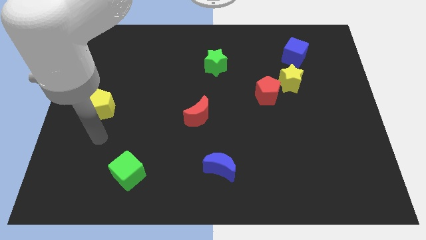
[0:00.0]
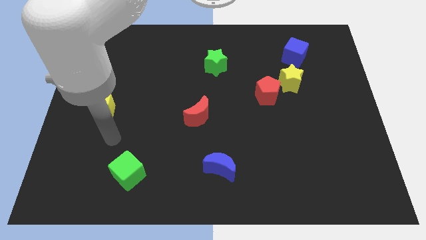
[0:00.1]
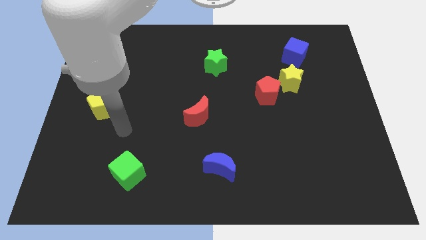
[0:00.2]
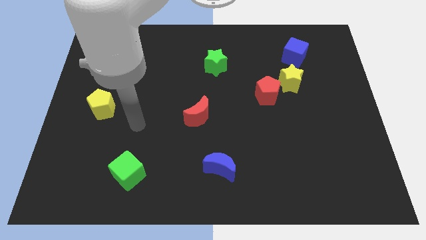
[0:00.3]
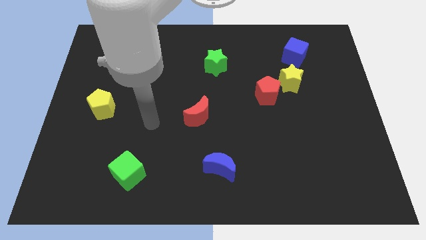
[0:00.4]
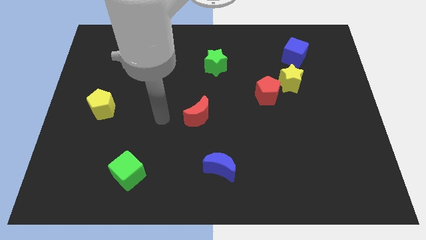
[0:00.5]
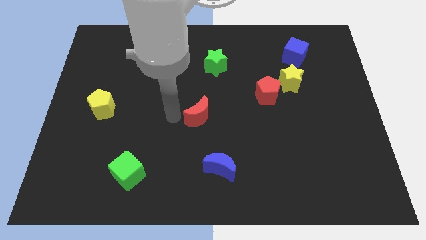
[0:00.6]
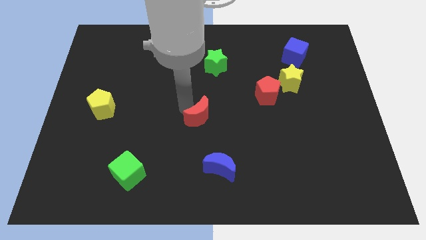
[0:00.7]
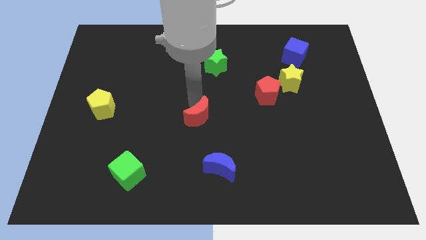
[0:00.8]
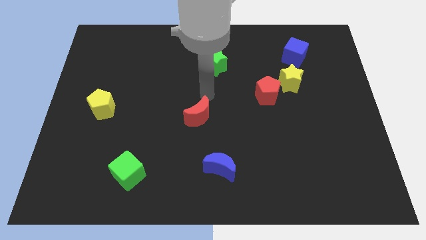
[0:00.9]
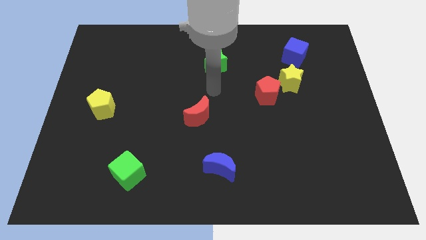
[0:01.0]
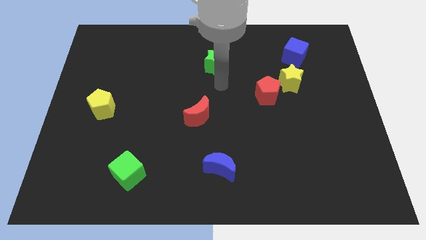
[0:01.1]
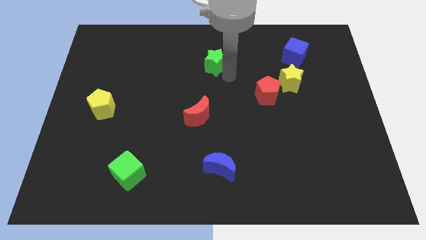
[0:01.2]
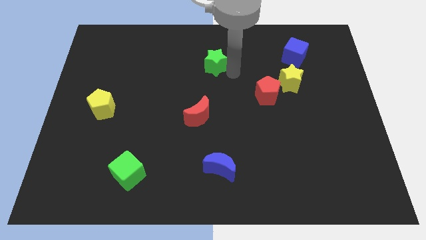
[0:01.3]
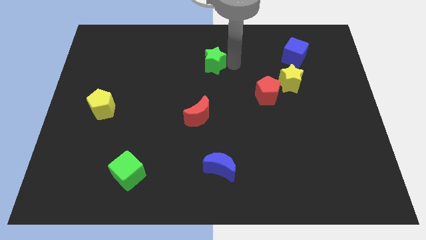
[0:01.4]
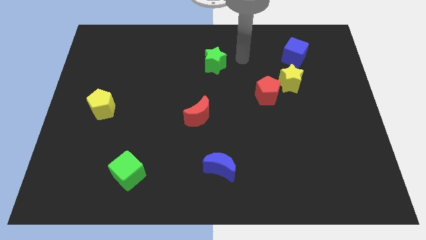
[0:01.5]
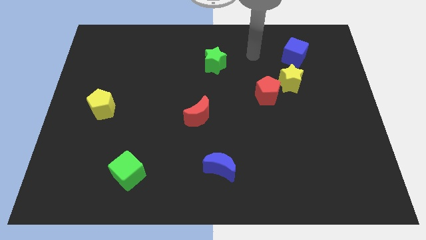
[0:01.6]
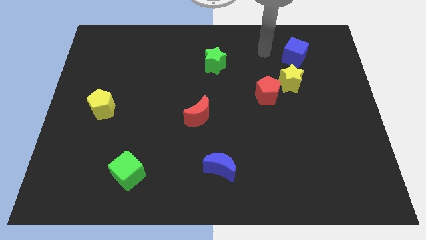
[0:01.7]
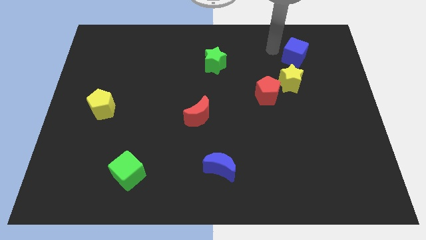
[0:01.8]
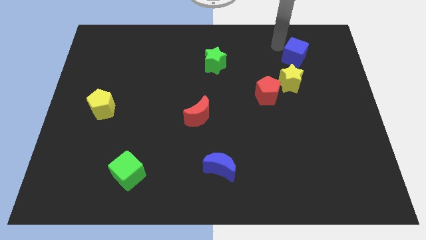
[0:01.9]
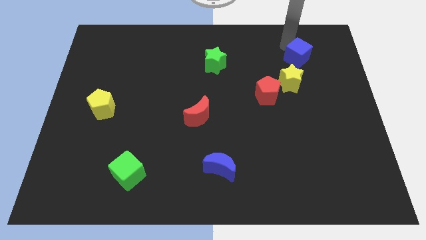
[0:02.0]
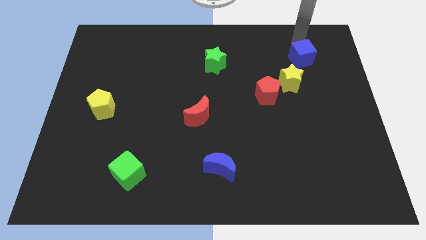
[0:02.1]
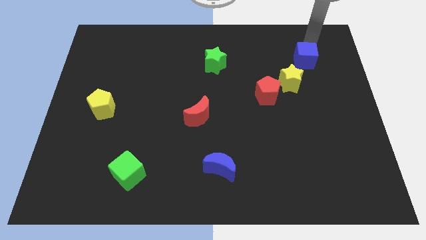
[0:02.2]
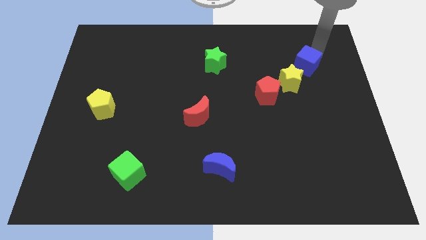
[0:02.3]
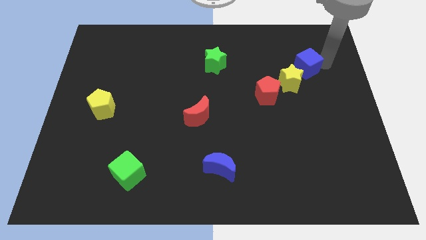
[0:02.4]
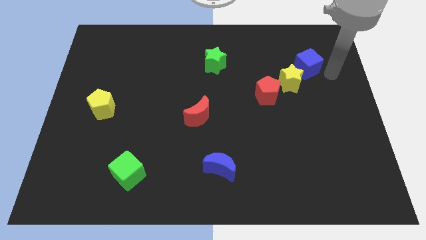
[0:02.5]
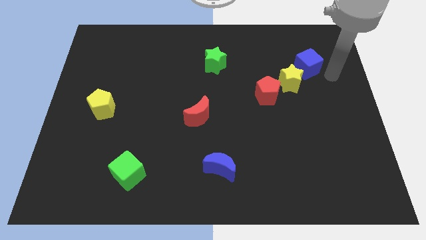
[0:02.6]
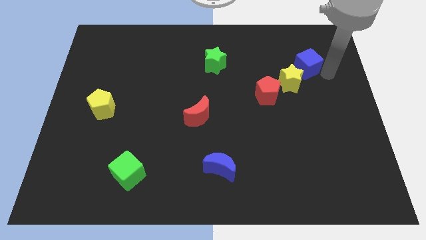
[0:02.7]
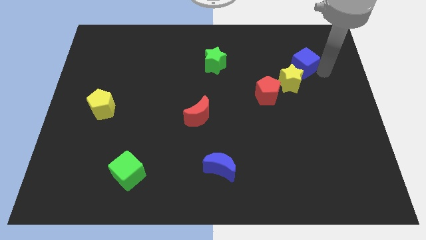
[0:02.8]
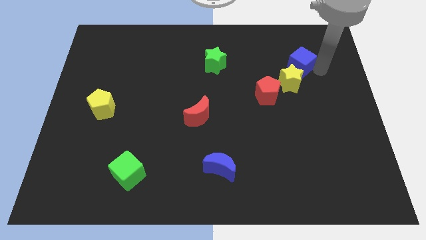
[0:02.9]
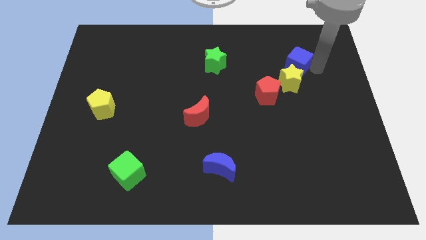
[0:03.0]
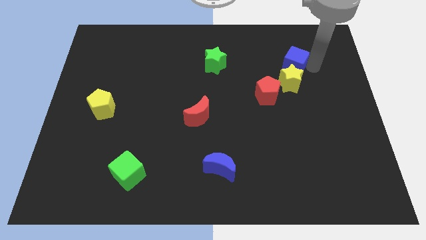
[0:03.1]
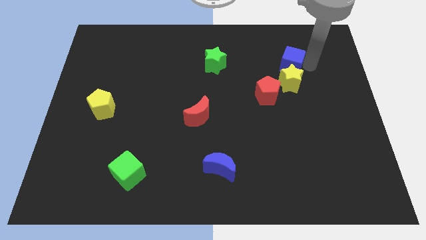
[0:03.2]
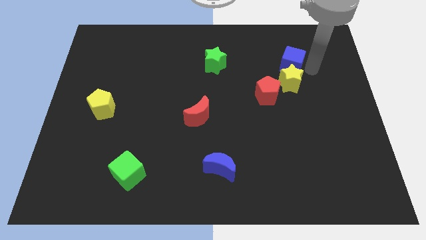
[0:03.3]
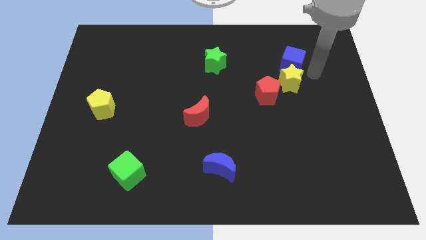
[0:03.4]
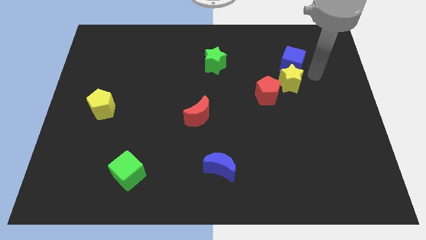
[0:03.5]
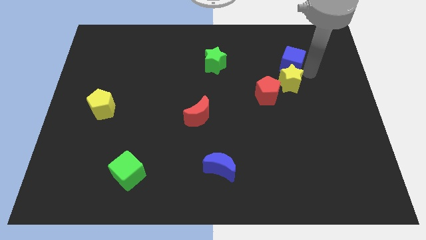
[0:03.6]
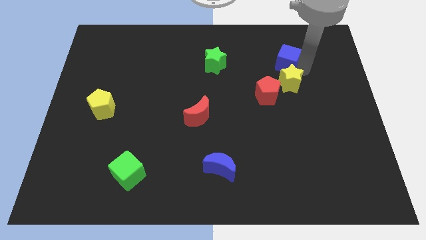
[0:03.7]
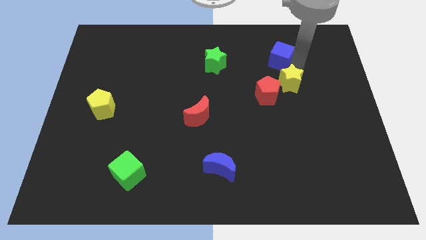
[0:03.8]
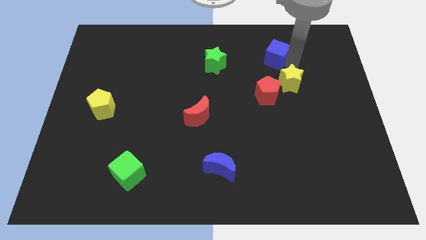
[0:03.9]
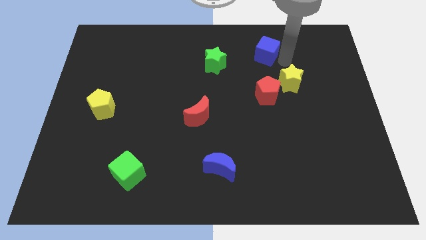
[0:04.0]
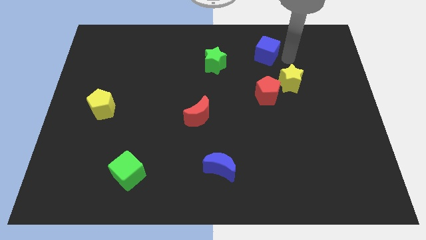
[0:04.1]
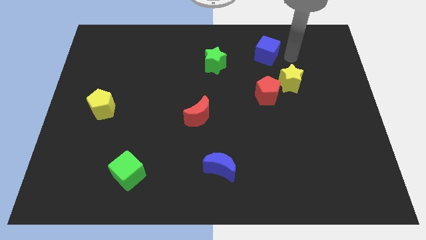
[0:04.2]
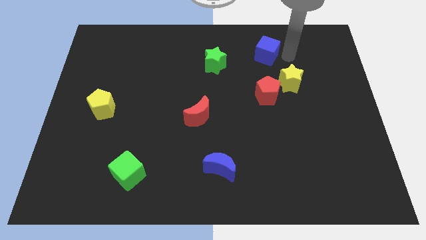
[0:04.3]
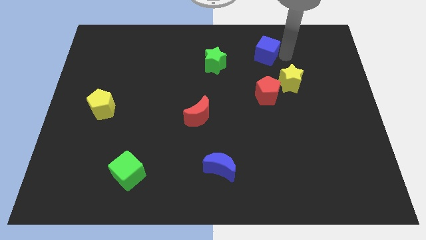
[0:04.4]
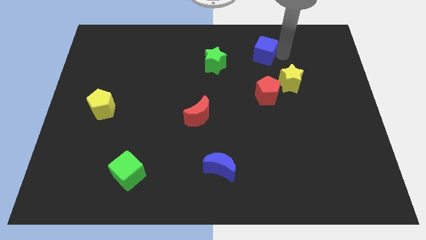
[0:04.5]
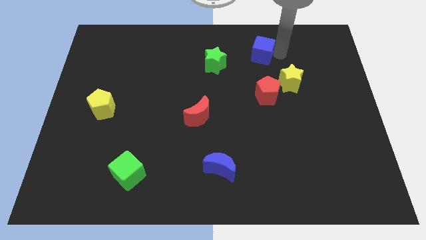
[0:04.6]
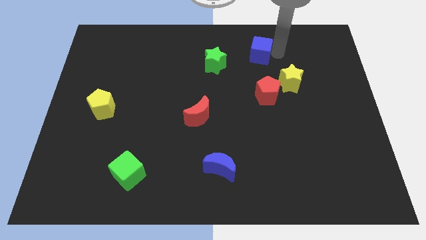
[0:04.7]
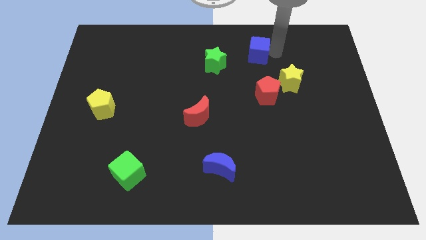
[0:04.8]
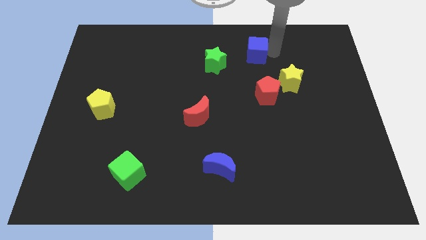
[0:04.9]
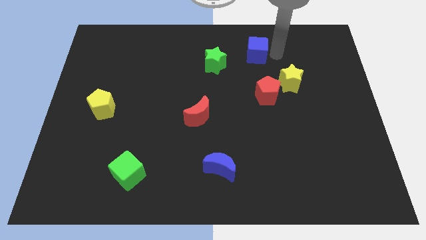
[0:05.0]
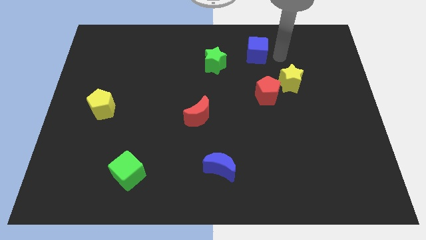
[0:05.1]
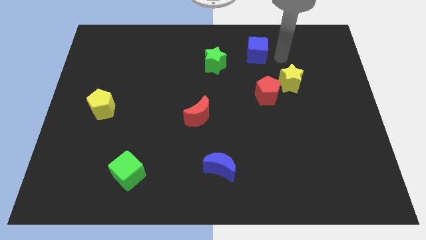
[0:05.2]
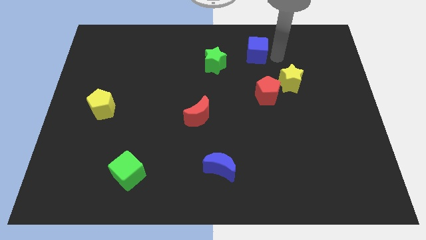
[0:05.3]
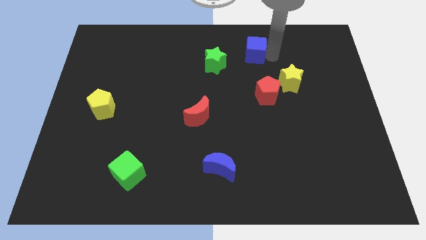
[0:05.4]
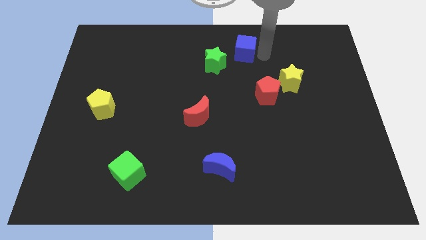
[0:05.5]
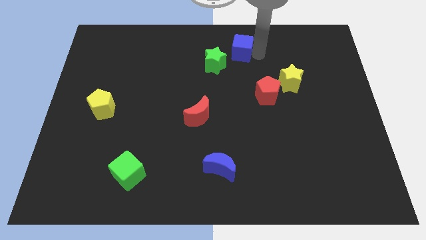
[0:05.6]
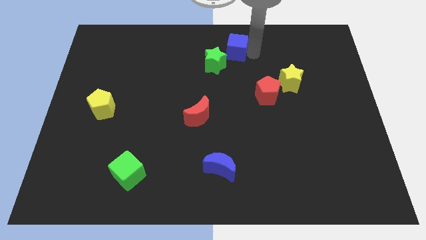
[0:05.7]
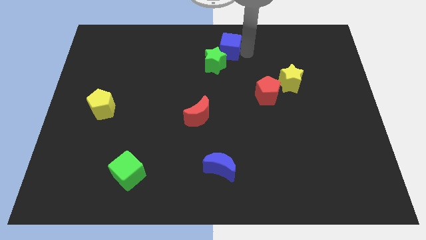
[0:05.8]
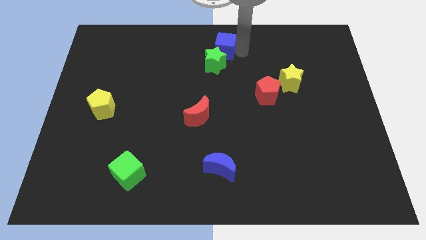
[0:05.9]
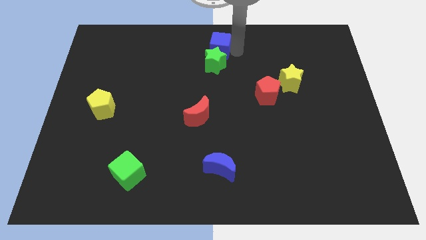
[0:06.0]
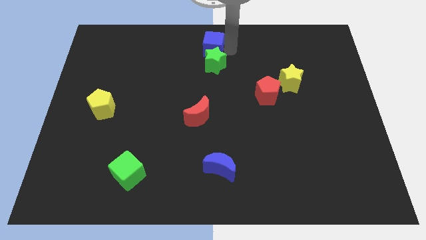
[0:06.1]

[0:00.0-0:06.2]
push the blue cube to the left

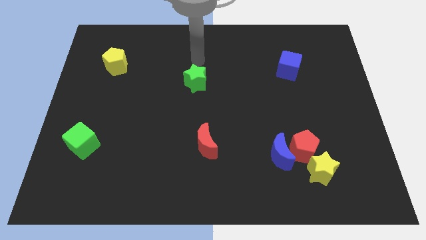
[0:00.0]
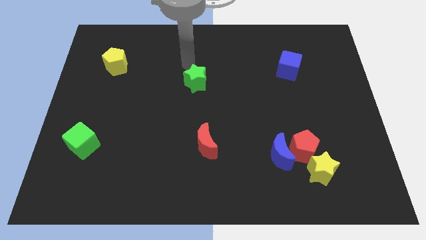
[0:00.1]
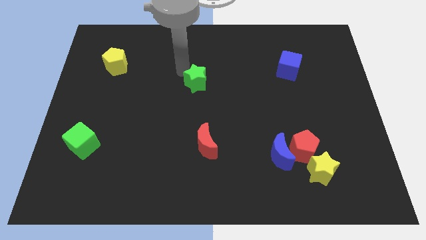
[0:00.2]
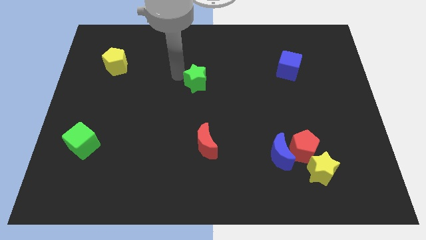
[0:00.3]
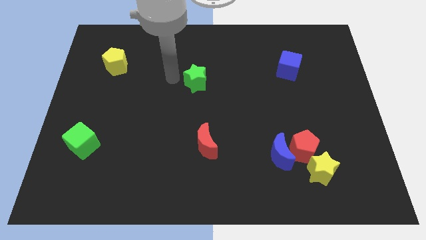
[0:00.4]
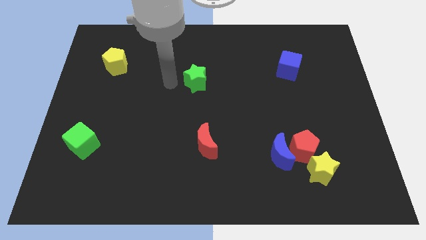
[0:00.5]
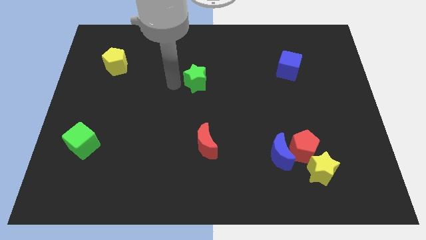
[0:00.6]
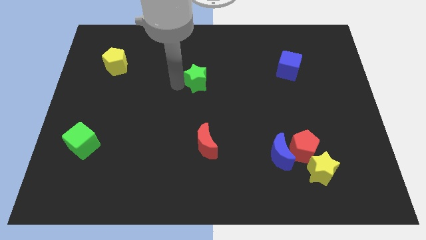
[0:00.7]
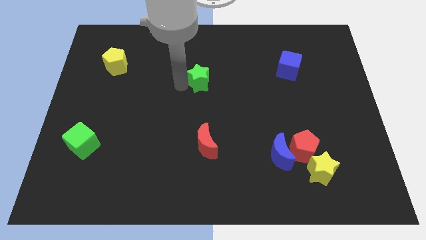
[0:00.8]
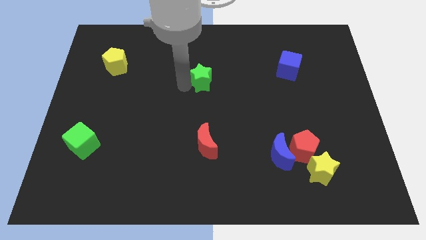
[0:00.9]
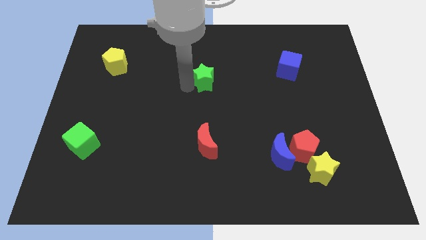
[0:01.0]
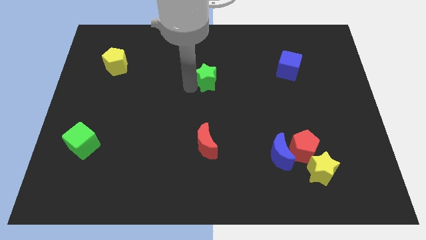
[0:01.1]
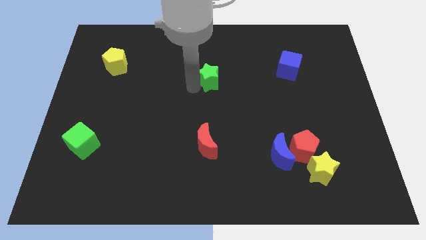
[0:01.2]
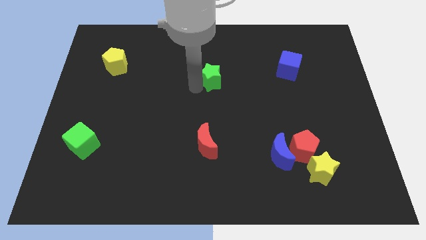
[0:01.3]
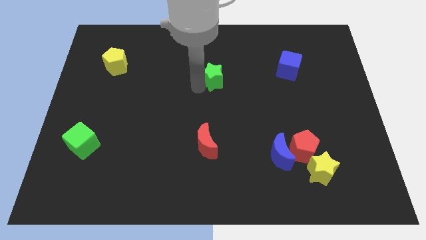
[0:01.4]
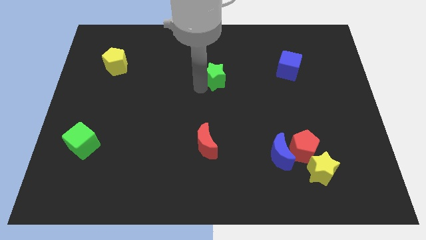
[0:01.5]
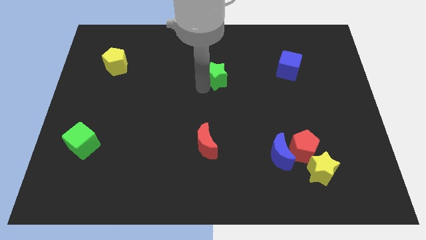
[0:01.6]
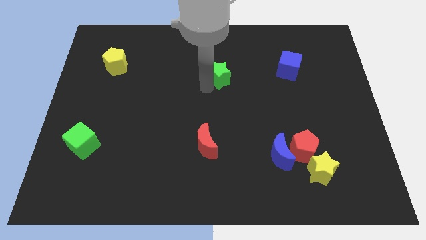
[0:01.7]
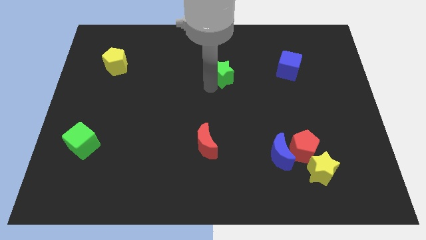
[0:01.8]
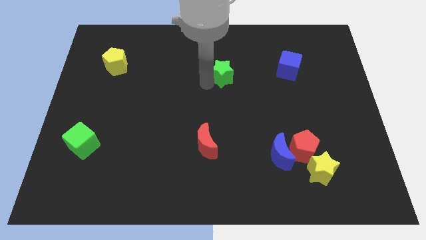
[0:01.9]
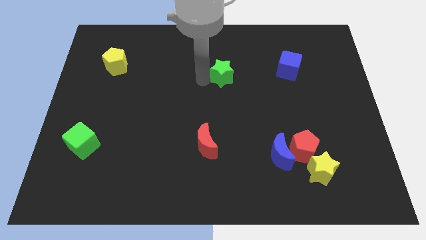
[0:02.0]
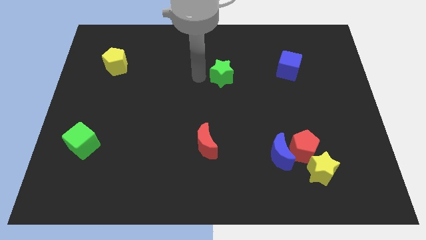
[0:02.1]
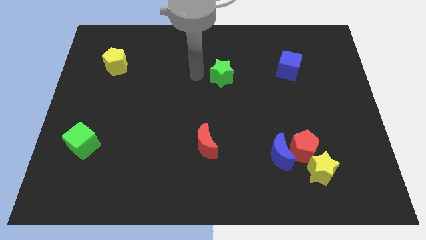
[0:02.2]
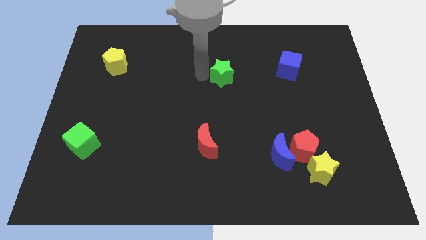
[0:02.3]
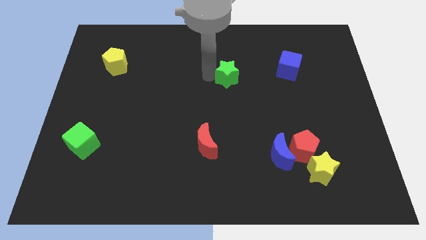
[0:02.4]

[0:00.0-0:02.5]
push the green star to the right somewhat
